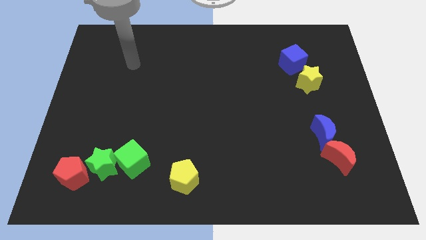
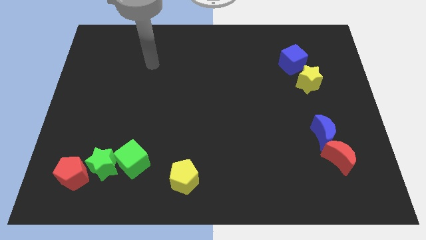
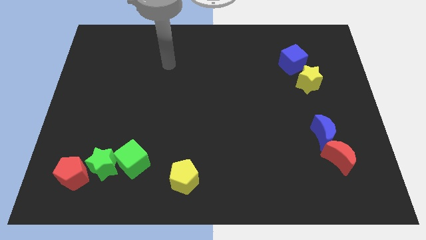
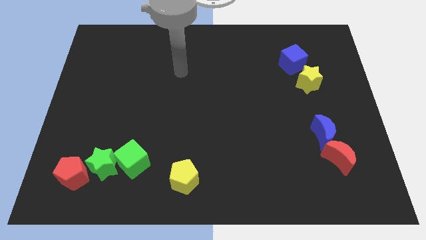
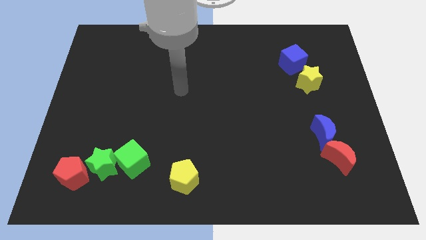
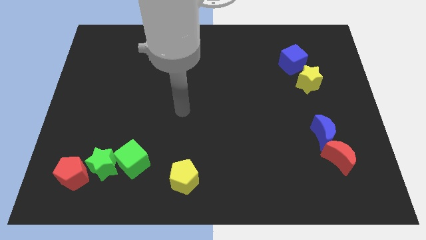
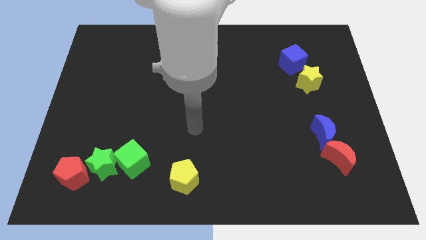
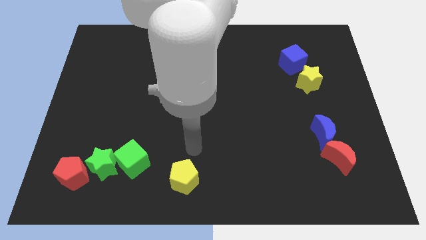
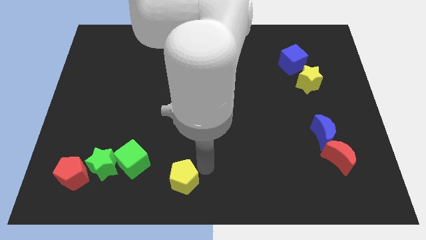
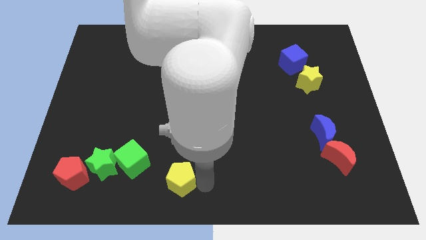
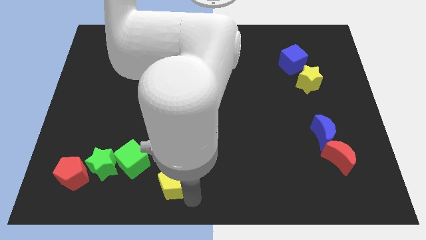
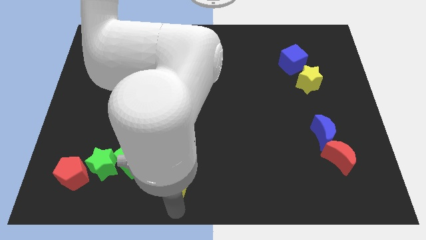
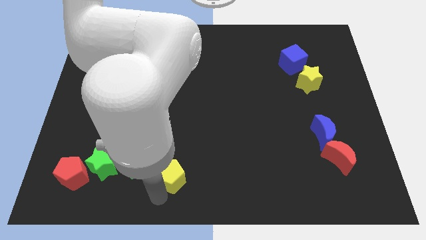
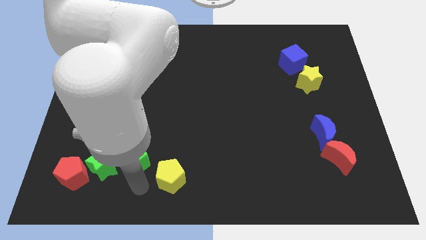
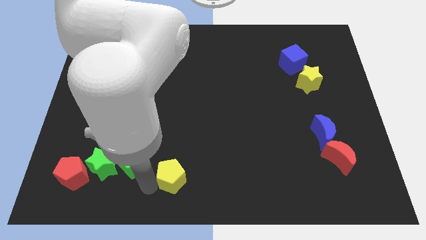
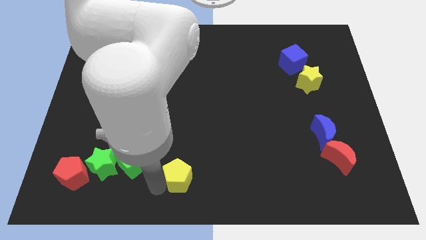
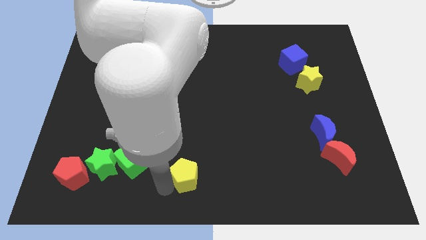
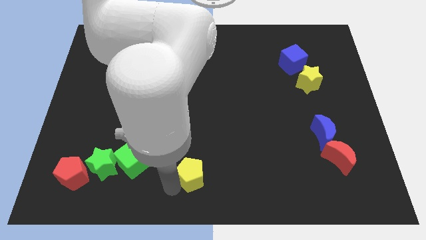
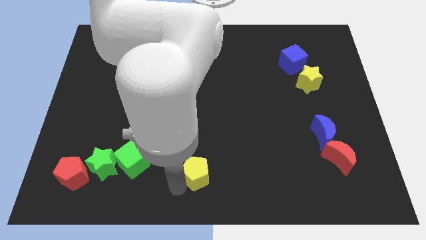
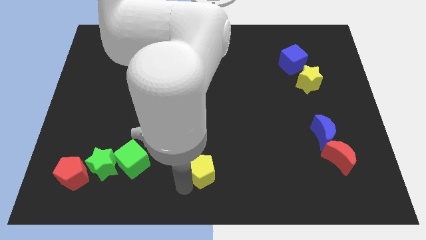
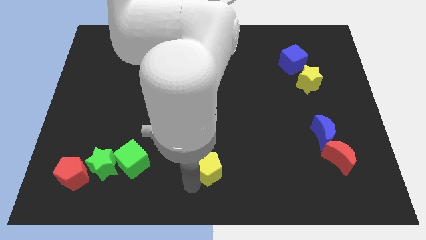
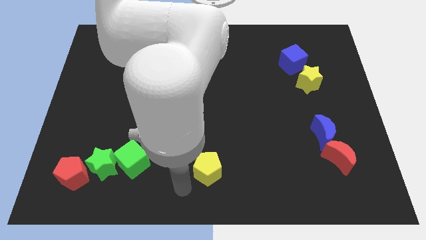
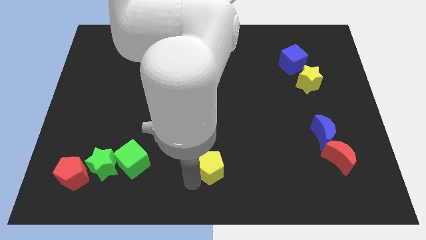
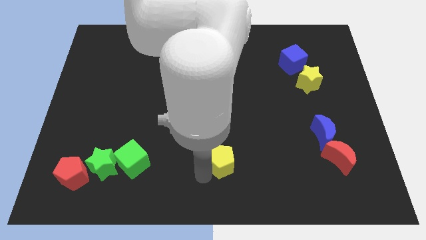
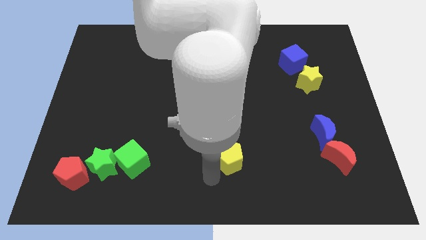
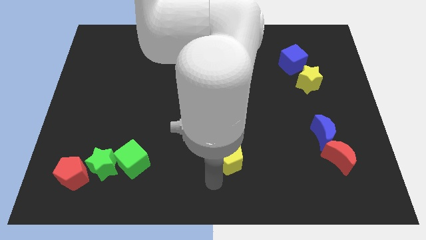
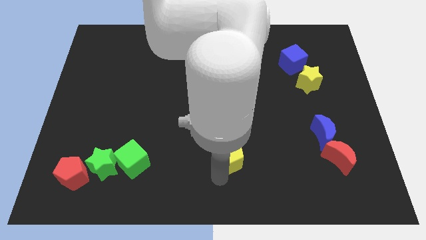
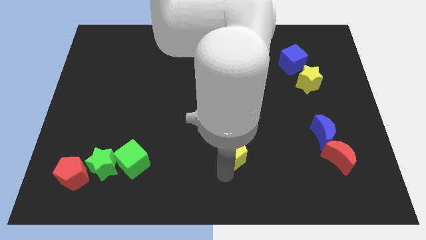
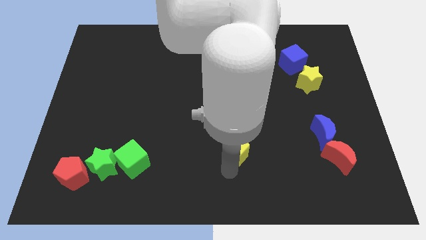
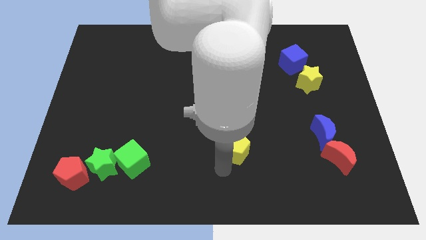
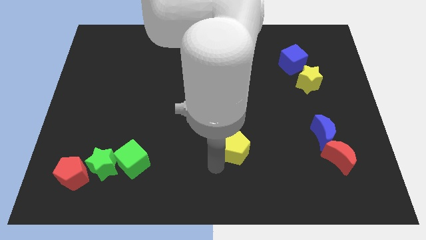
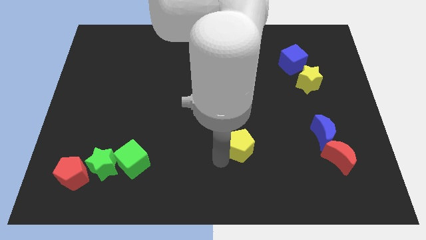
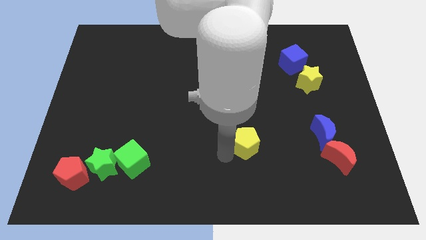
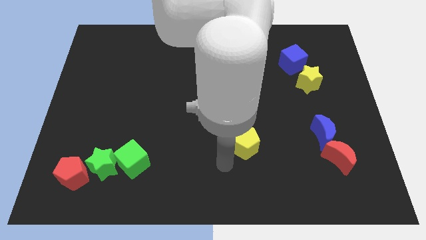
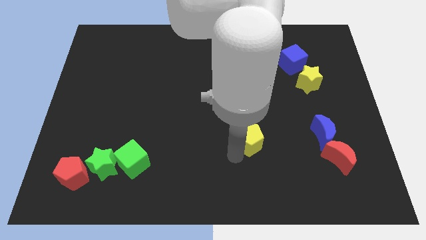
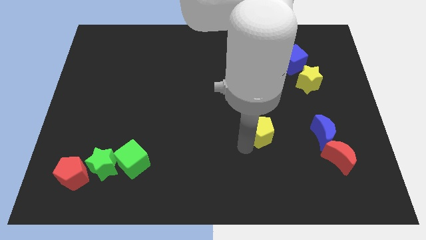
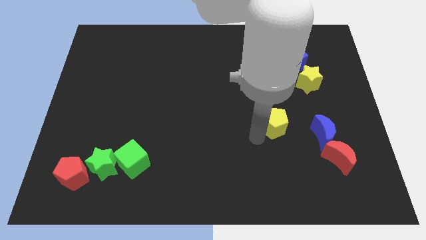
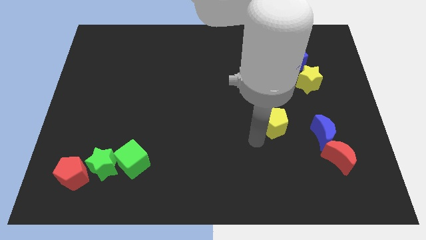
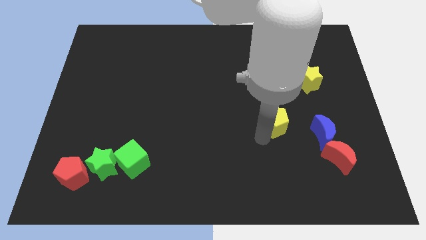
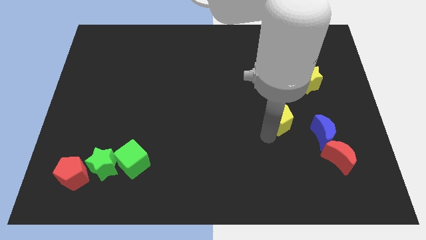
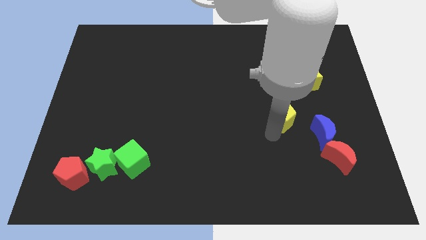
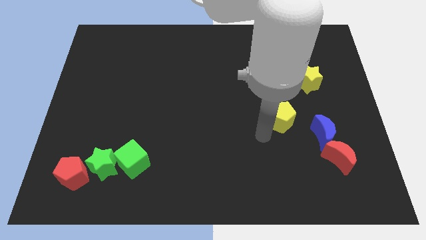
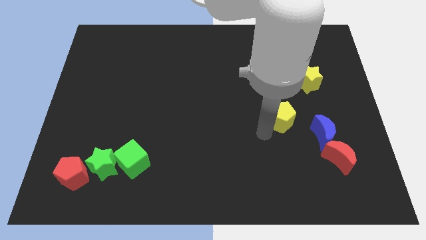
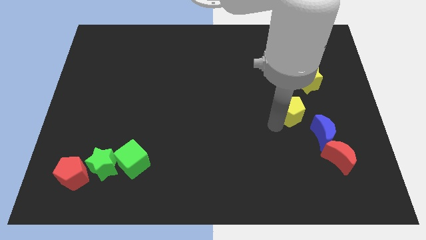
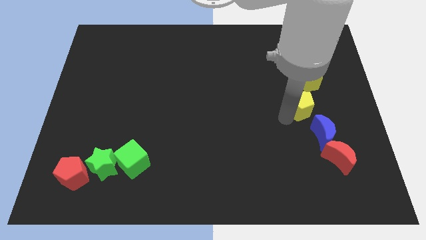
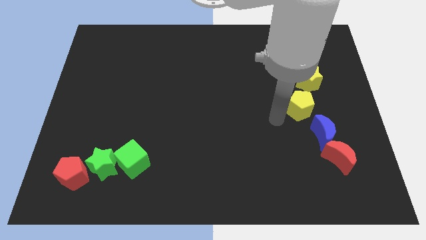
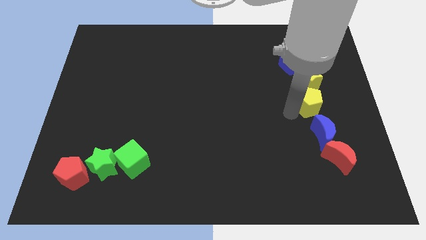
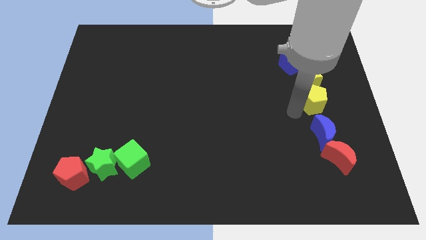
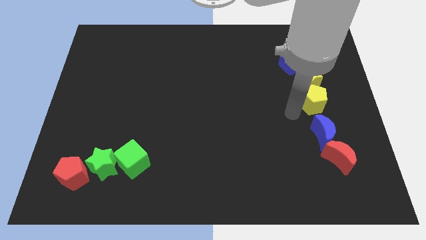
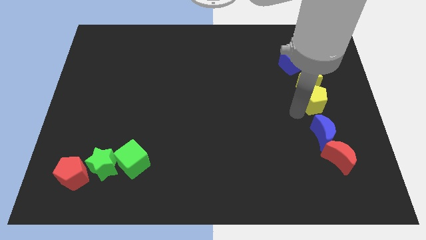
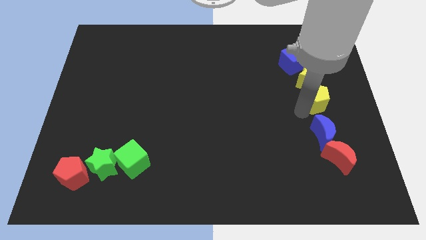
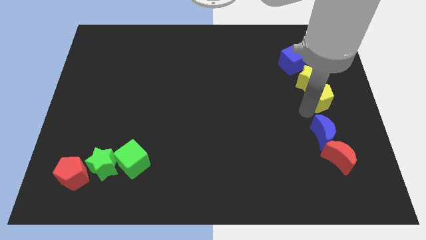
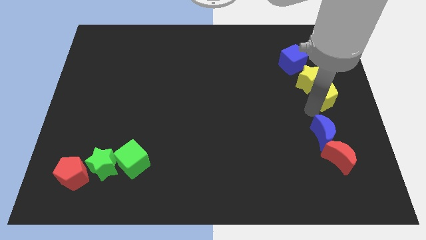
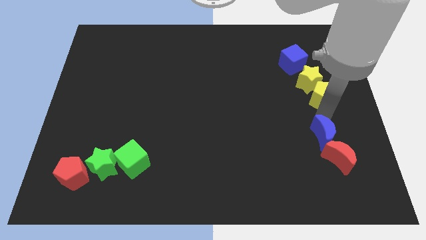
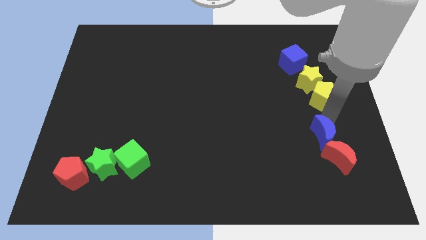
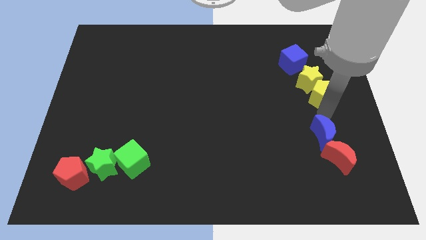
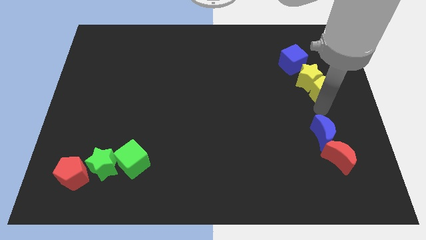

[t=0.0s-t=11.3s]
slide the yellow pentagon to the bottom right side of the blue cube

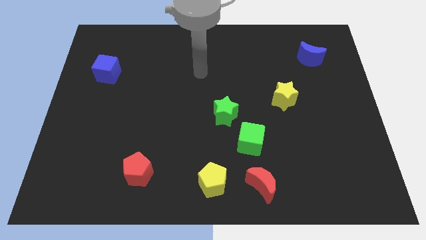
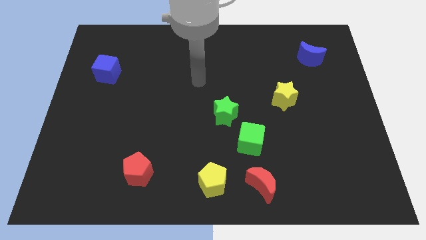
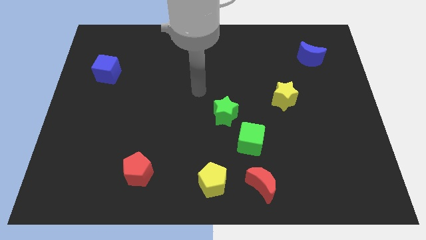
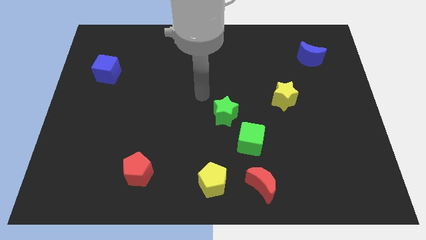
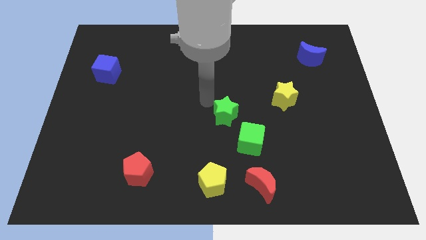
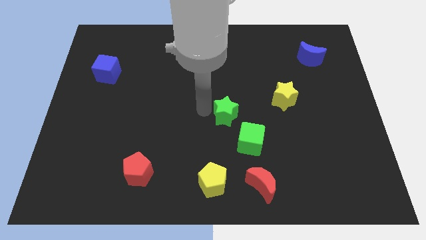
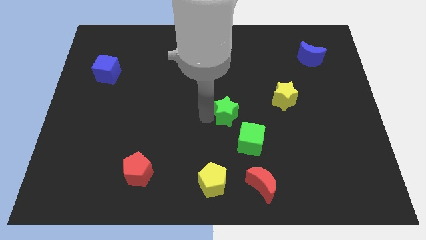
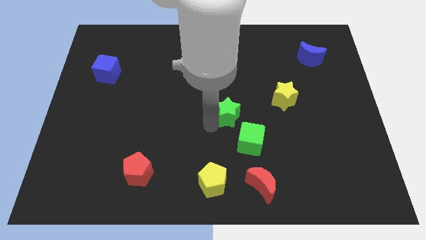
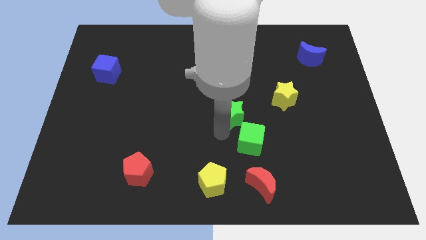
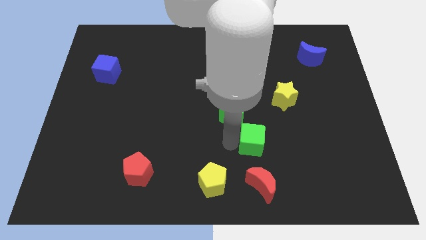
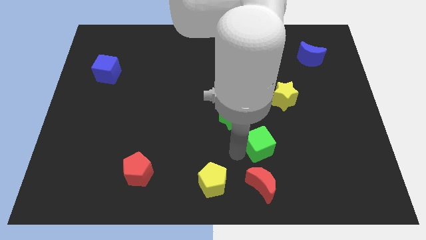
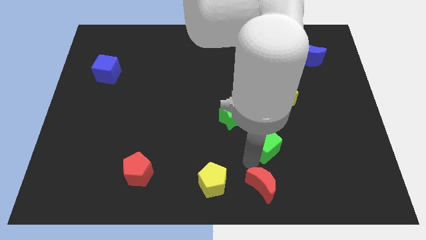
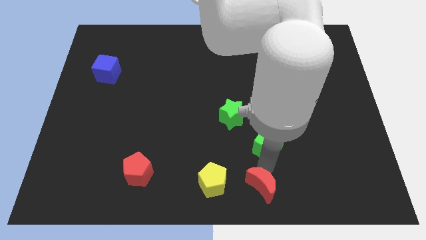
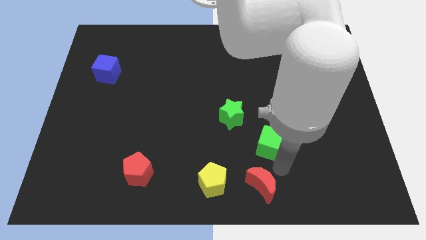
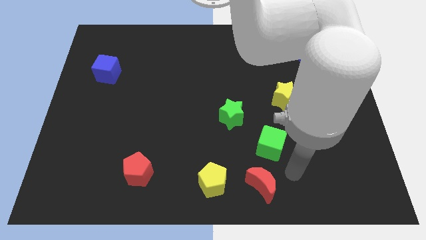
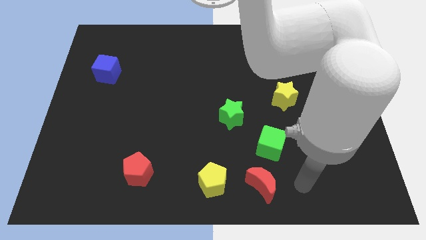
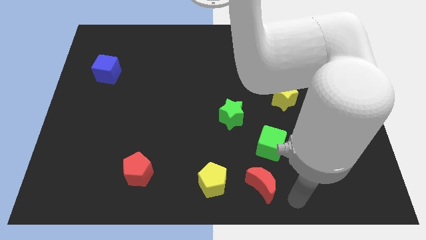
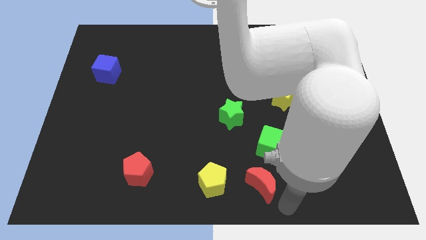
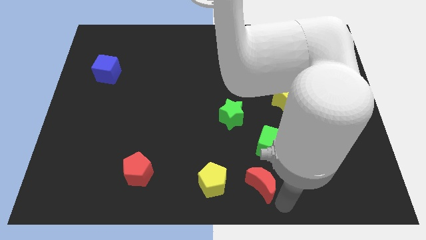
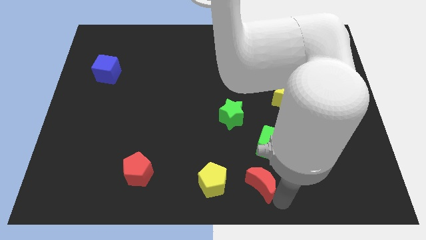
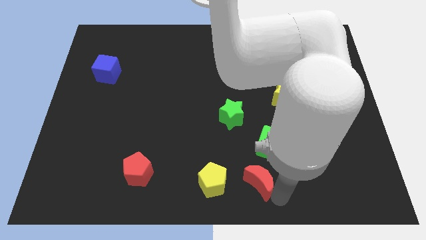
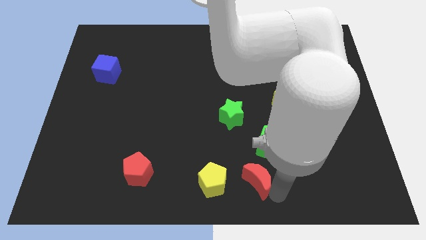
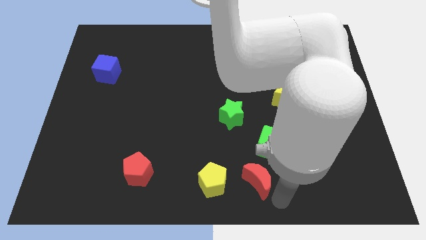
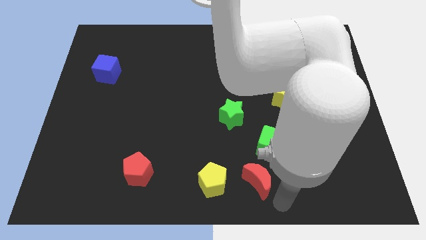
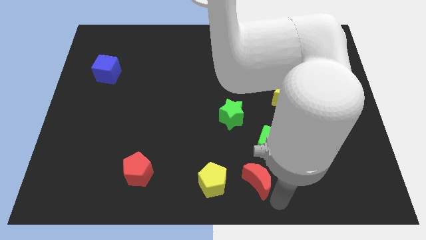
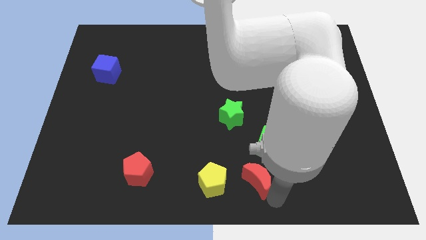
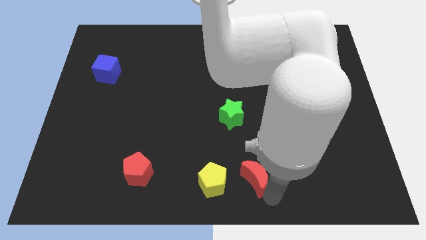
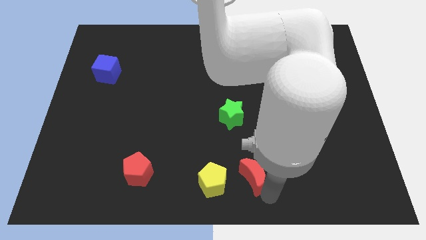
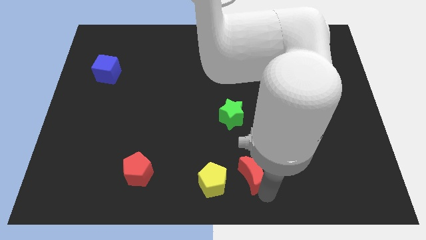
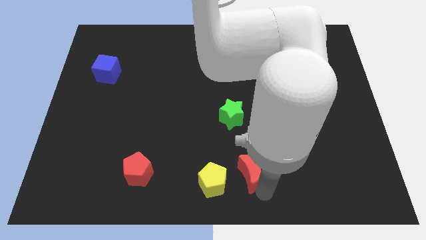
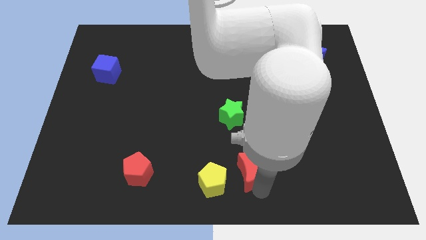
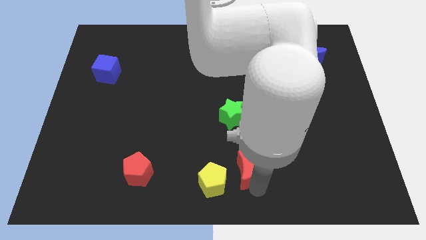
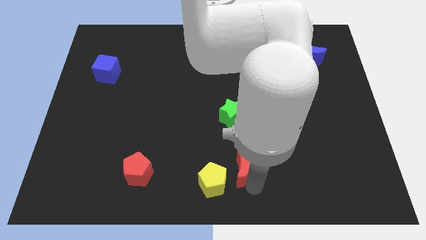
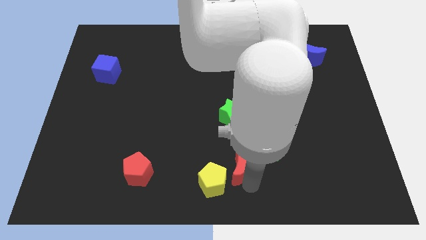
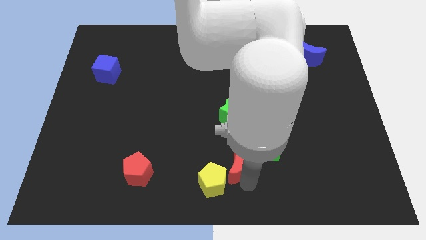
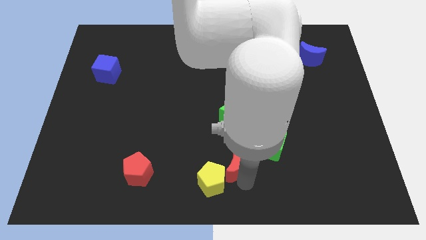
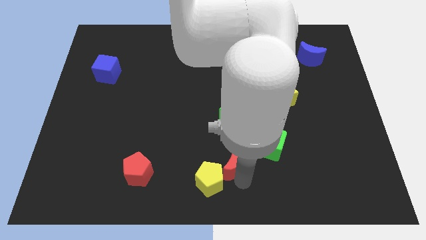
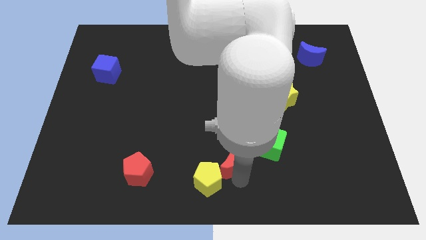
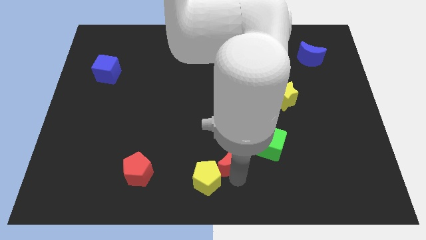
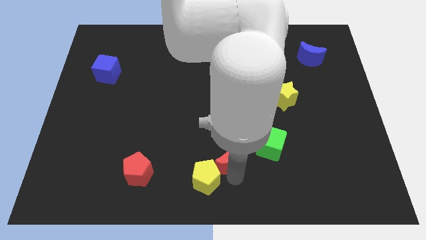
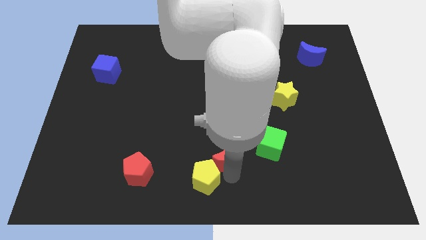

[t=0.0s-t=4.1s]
slide the red moon above the yellow pentagon
